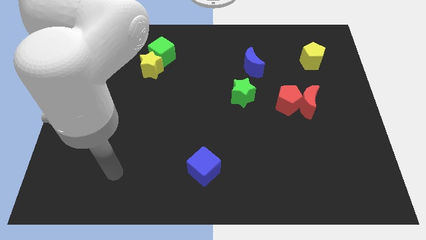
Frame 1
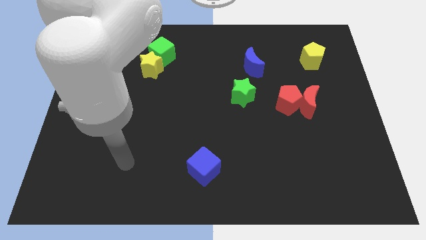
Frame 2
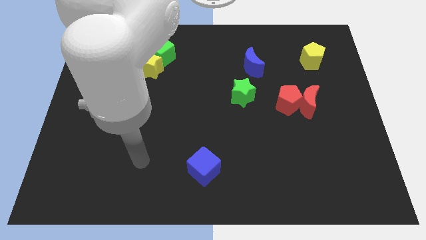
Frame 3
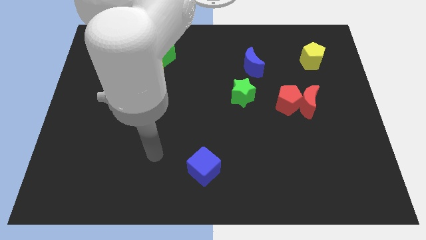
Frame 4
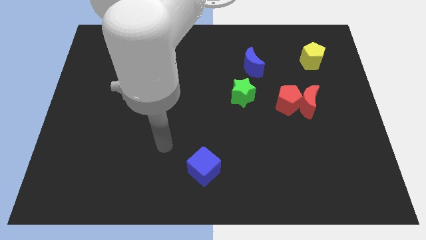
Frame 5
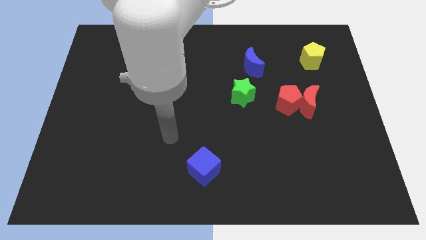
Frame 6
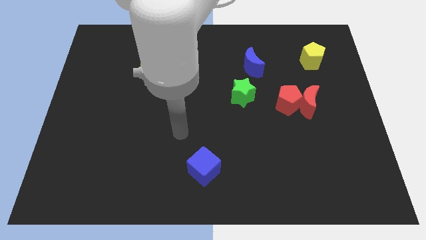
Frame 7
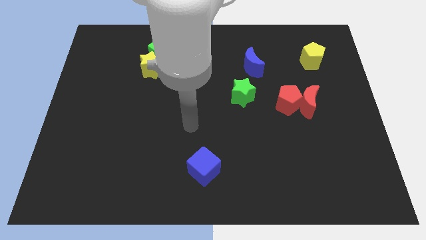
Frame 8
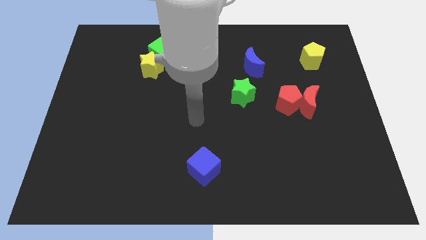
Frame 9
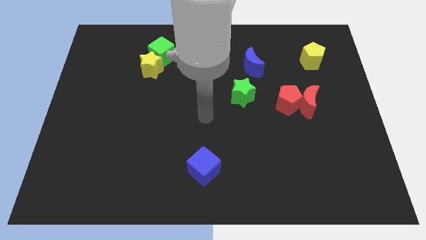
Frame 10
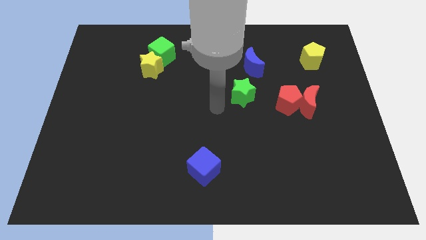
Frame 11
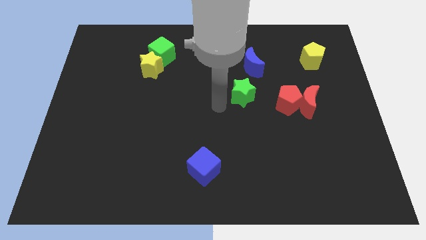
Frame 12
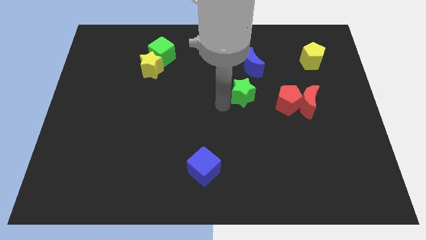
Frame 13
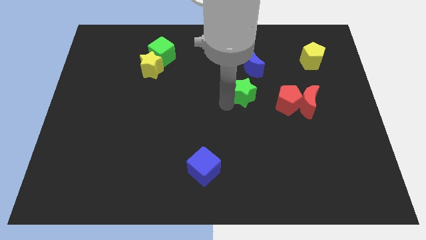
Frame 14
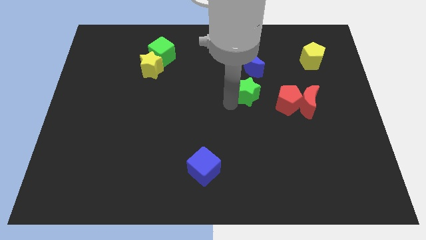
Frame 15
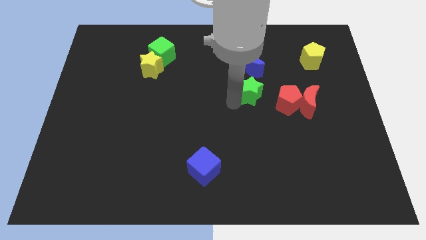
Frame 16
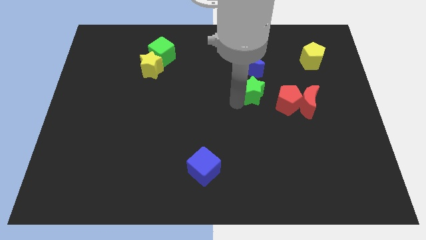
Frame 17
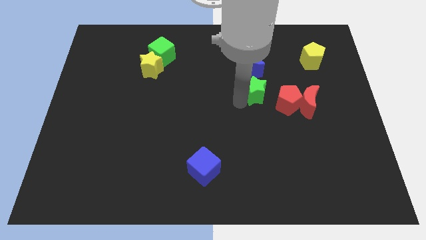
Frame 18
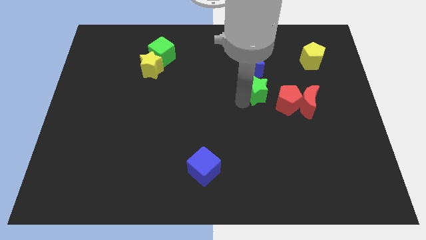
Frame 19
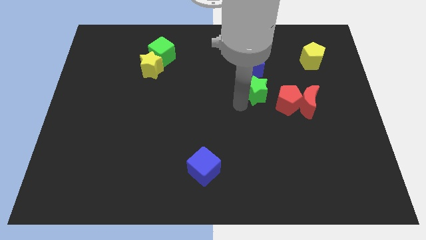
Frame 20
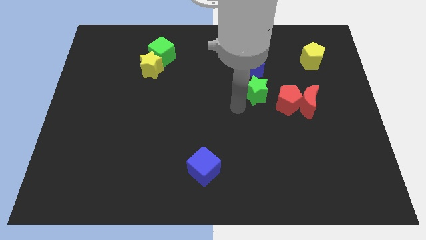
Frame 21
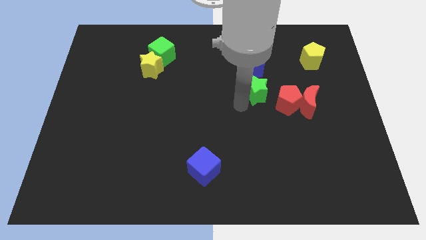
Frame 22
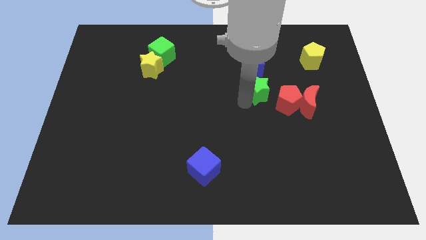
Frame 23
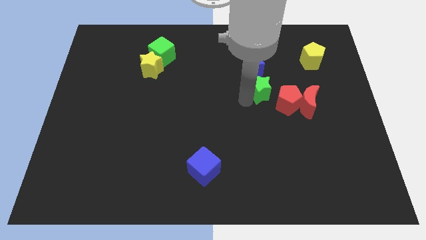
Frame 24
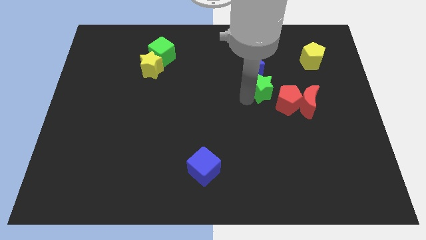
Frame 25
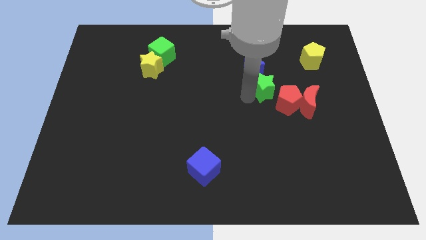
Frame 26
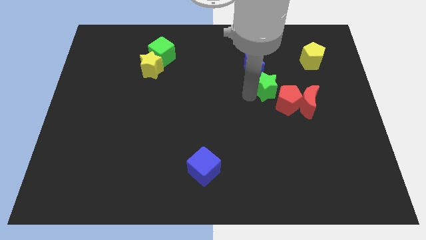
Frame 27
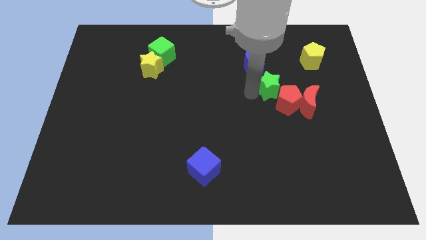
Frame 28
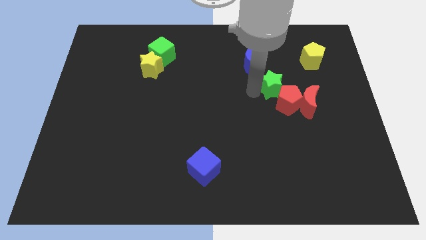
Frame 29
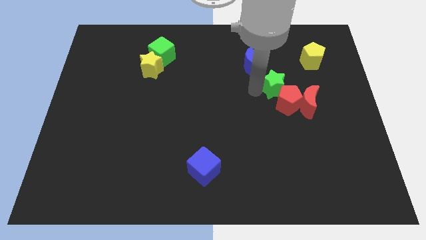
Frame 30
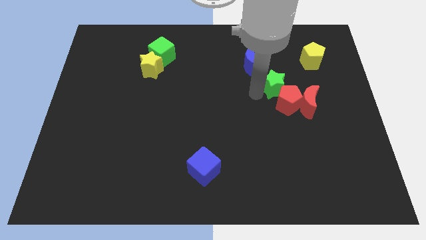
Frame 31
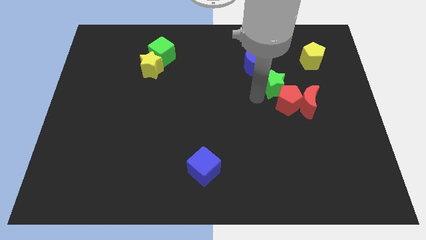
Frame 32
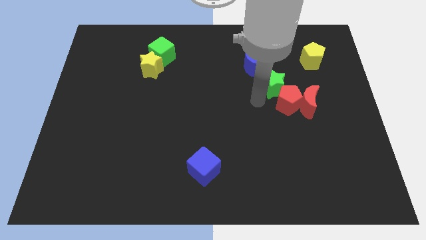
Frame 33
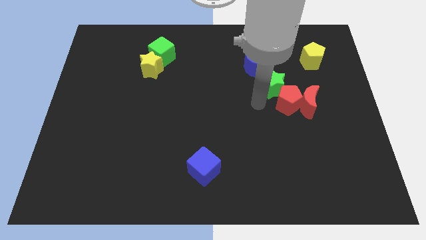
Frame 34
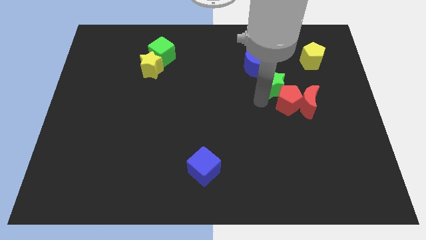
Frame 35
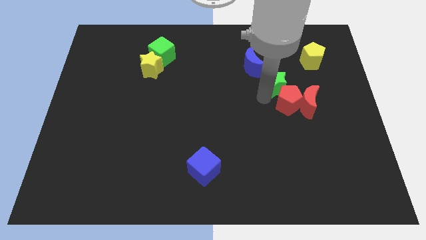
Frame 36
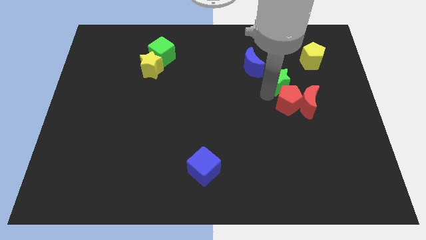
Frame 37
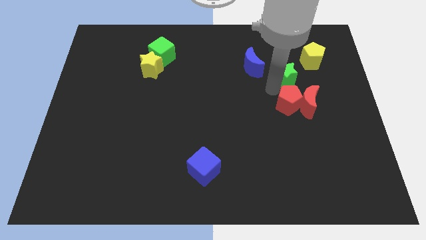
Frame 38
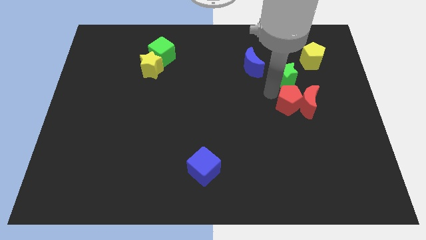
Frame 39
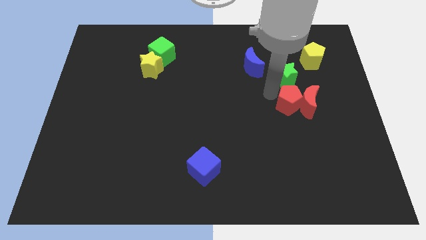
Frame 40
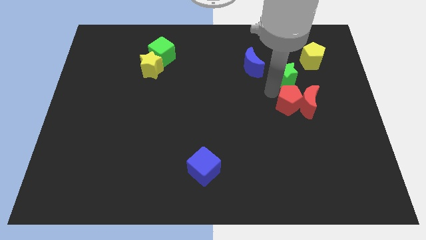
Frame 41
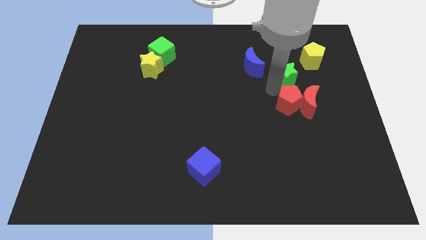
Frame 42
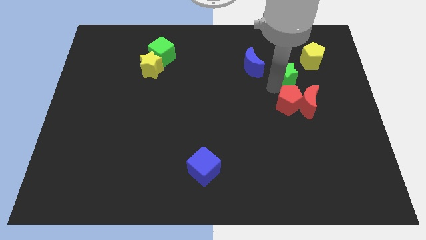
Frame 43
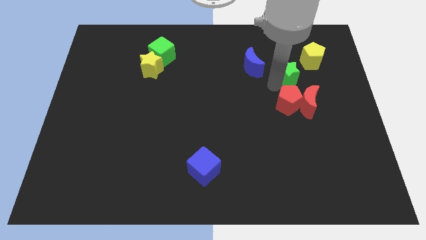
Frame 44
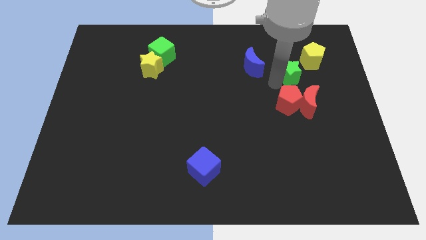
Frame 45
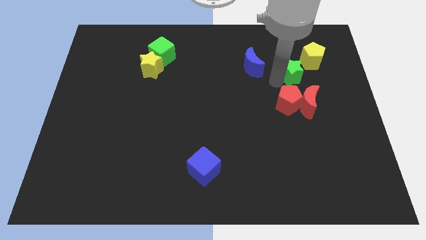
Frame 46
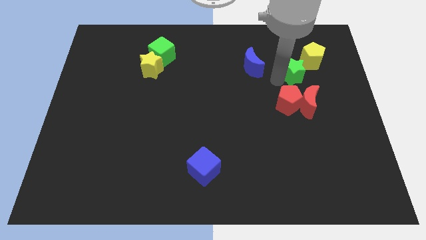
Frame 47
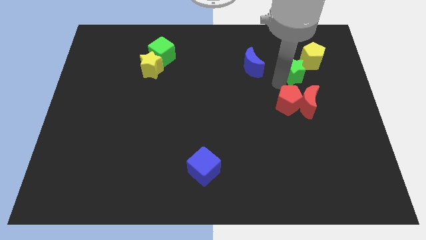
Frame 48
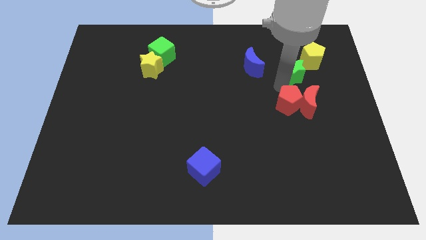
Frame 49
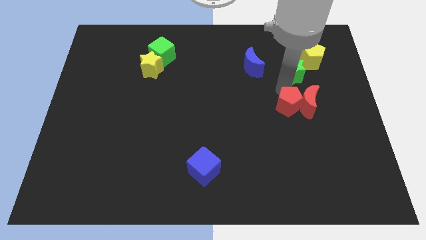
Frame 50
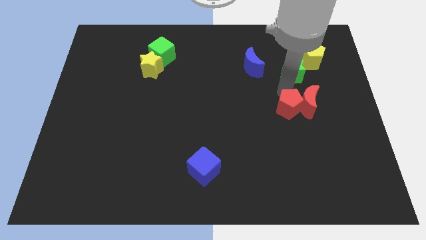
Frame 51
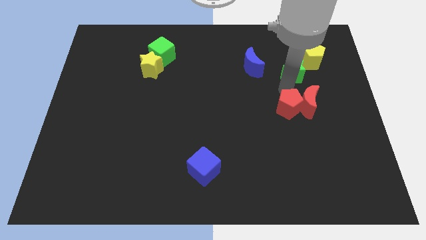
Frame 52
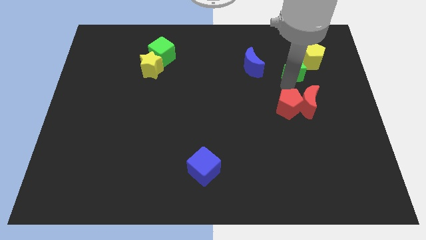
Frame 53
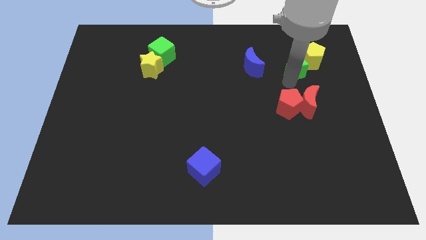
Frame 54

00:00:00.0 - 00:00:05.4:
push the green star close to the yellow pentagon

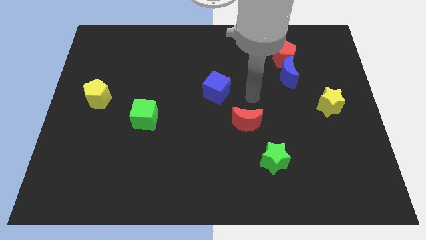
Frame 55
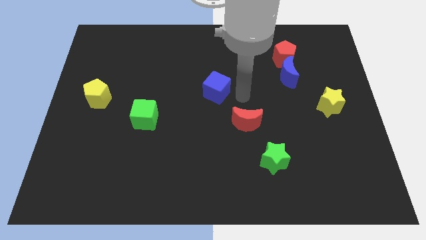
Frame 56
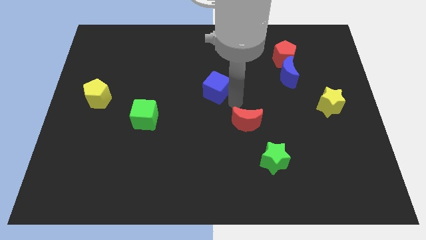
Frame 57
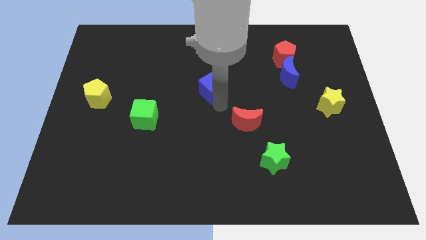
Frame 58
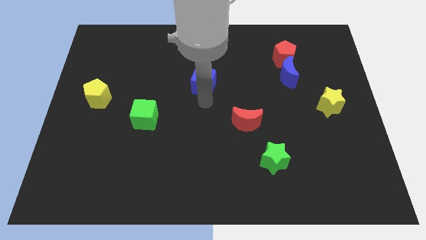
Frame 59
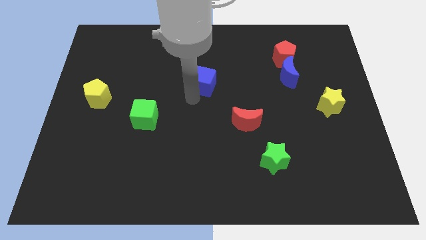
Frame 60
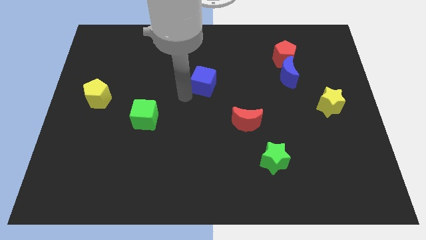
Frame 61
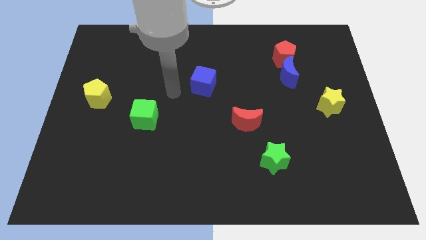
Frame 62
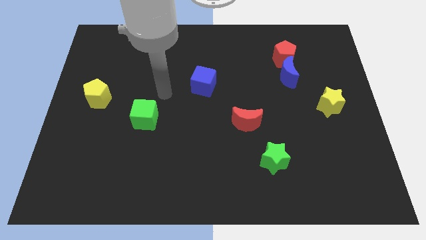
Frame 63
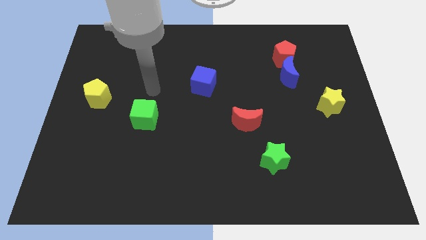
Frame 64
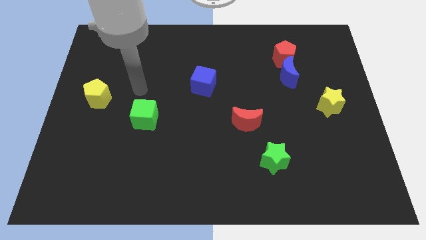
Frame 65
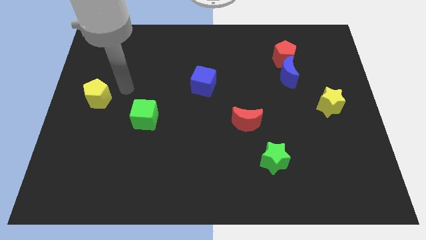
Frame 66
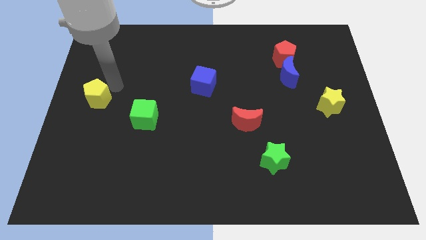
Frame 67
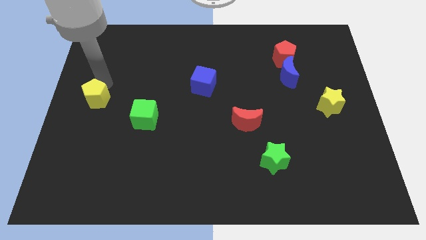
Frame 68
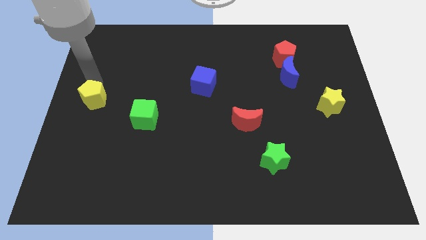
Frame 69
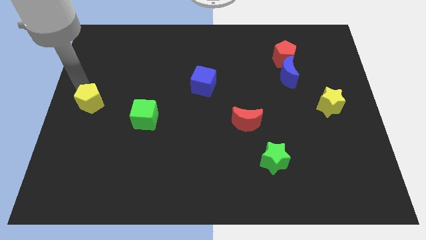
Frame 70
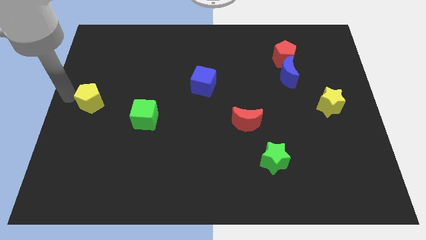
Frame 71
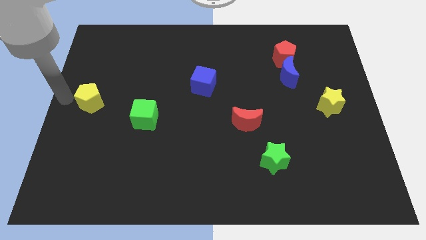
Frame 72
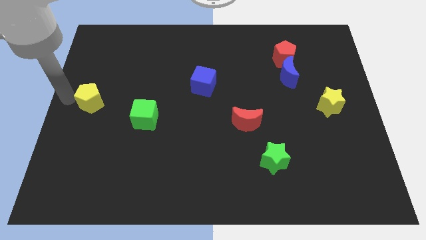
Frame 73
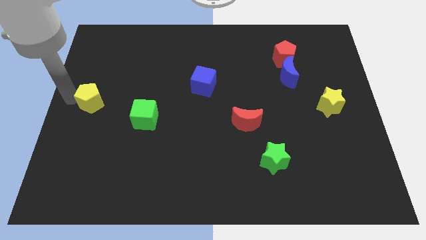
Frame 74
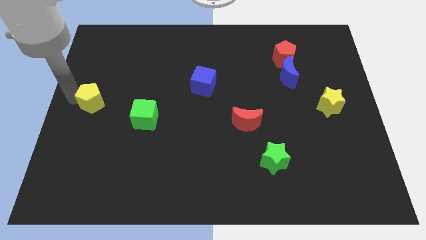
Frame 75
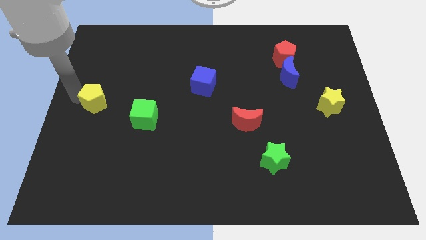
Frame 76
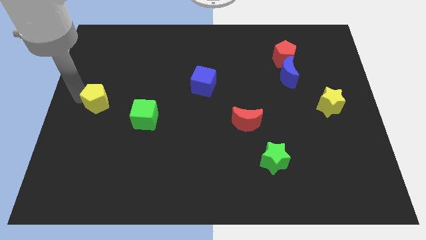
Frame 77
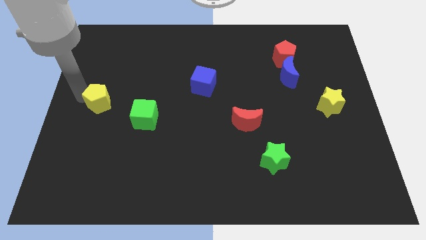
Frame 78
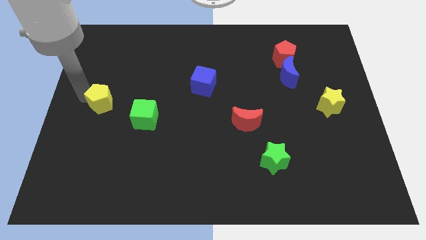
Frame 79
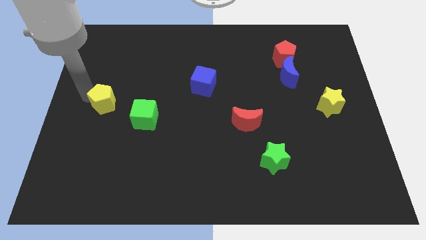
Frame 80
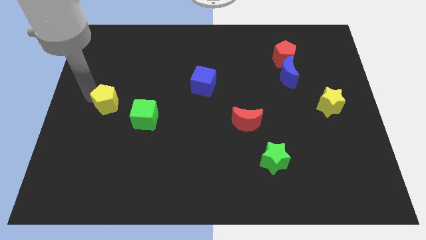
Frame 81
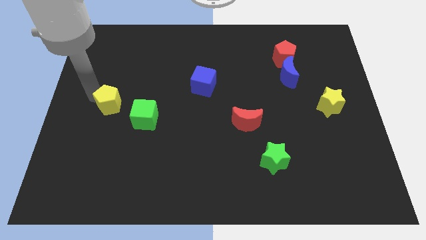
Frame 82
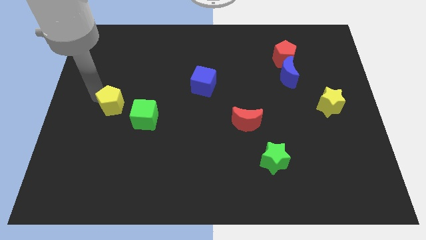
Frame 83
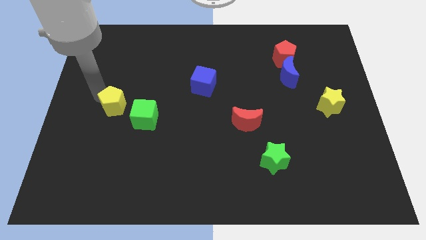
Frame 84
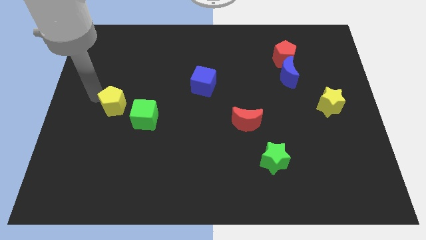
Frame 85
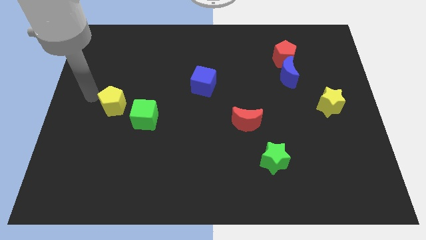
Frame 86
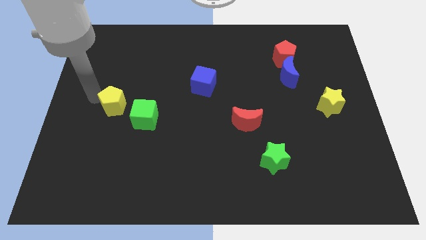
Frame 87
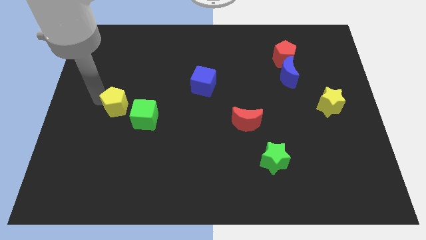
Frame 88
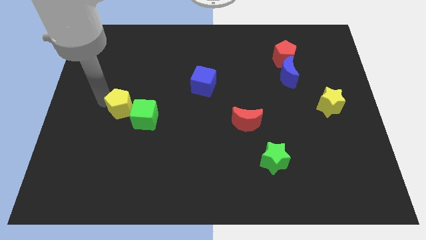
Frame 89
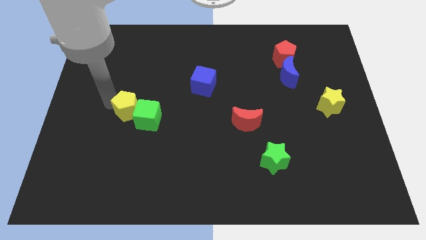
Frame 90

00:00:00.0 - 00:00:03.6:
move the yellow pentagon to the green cube
